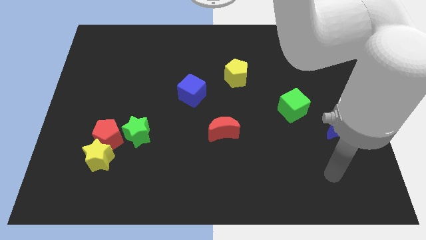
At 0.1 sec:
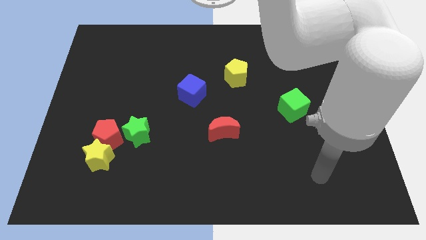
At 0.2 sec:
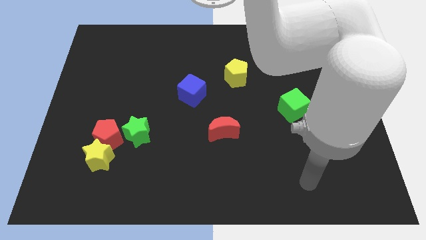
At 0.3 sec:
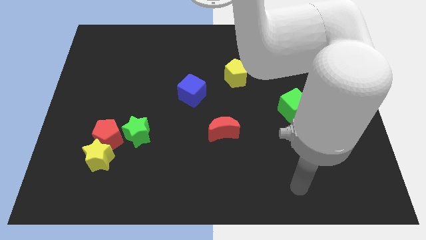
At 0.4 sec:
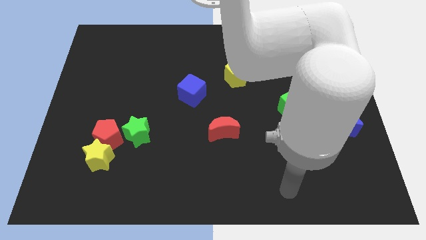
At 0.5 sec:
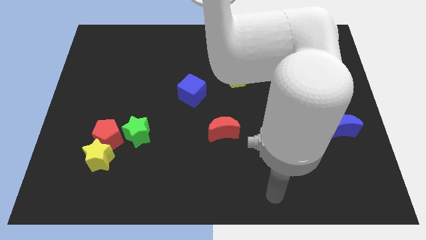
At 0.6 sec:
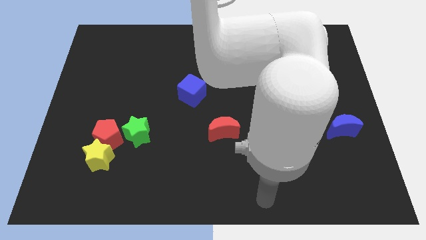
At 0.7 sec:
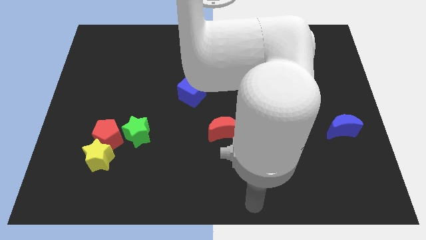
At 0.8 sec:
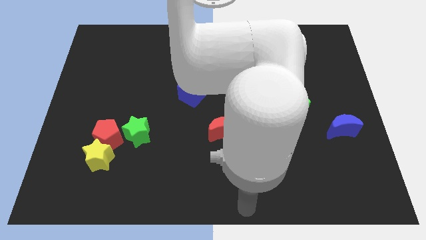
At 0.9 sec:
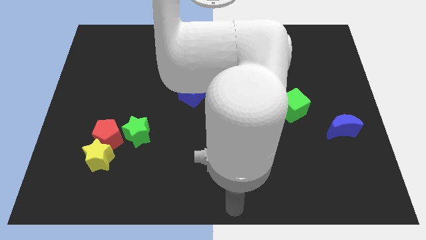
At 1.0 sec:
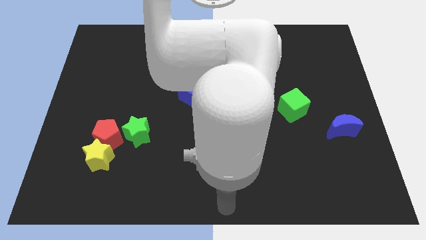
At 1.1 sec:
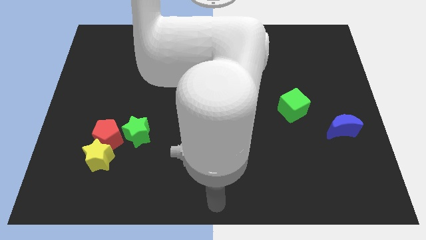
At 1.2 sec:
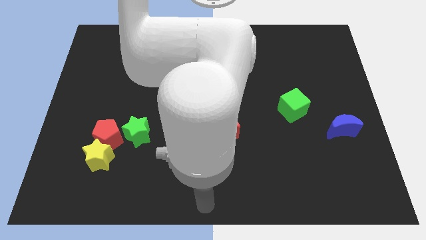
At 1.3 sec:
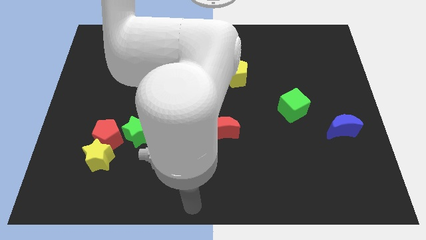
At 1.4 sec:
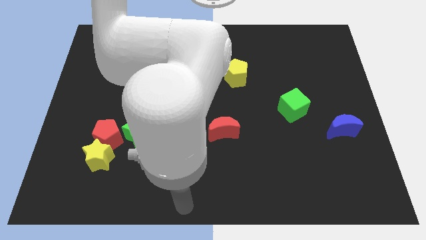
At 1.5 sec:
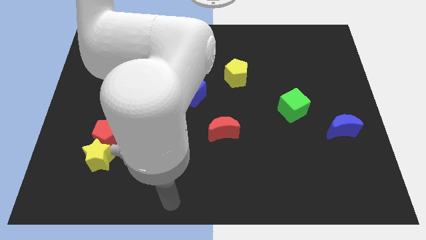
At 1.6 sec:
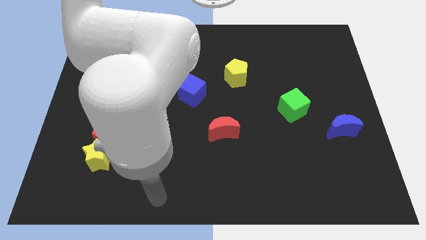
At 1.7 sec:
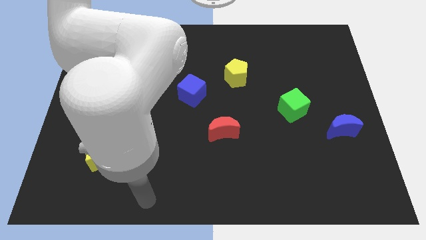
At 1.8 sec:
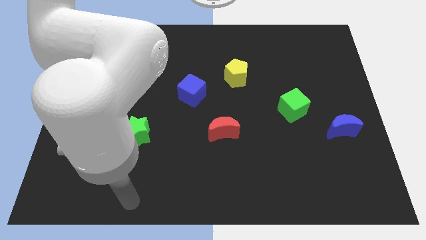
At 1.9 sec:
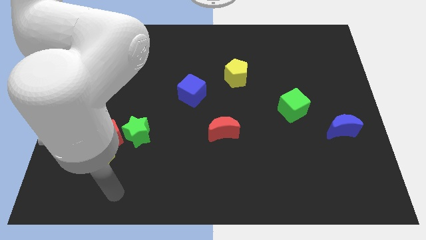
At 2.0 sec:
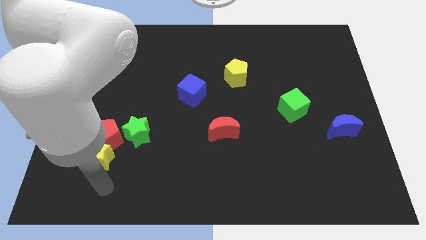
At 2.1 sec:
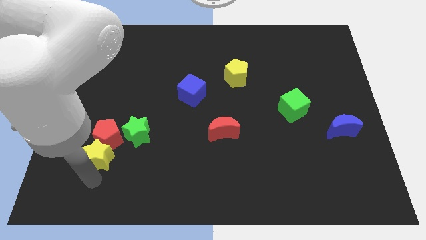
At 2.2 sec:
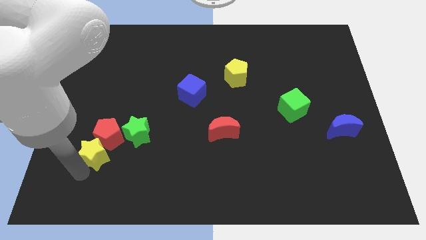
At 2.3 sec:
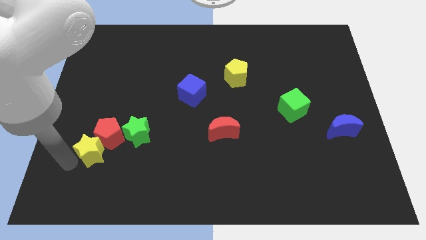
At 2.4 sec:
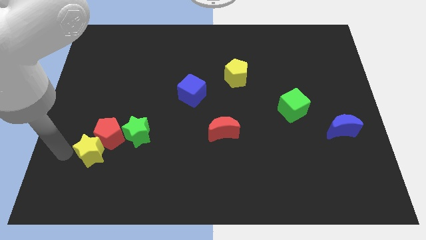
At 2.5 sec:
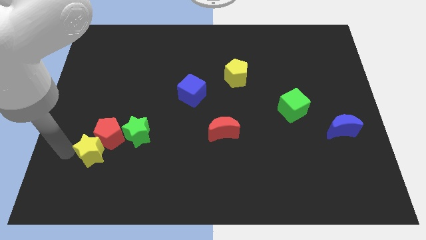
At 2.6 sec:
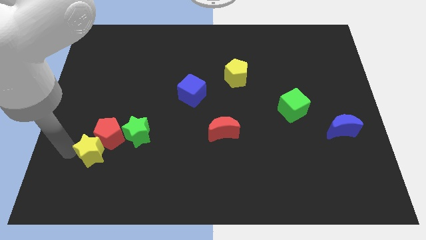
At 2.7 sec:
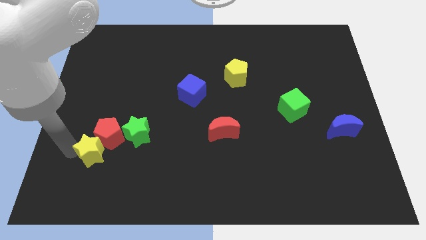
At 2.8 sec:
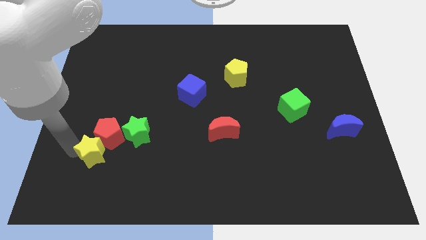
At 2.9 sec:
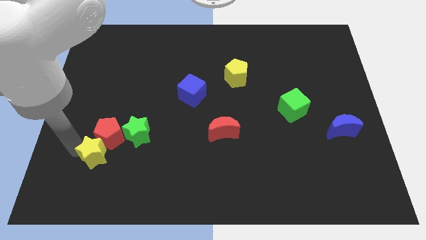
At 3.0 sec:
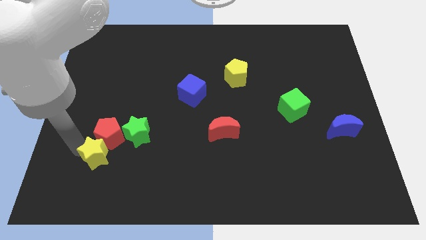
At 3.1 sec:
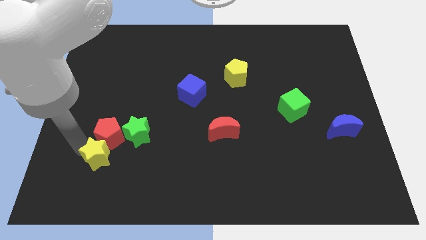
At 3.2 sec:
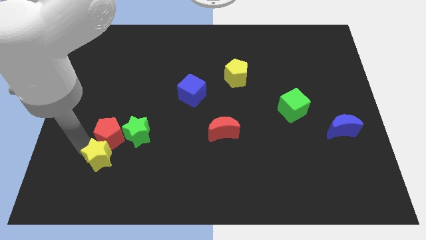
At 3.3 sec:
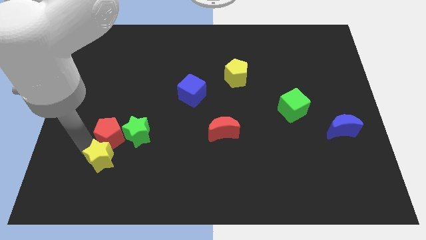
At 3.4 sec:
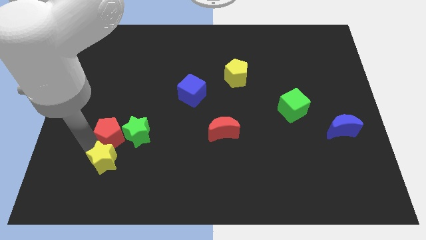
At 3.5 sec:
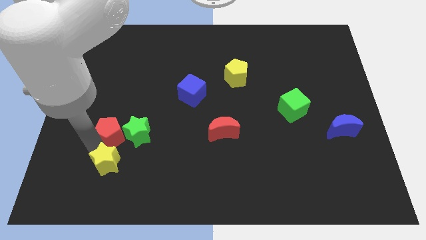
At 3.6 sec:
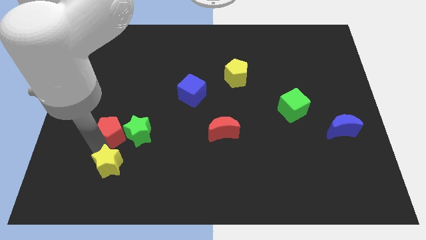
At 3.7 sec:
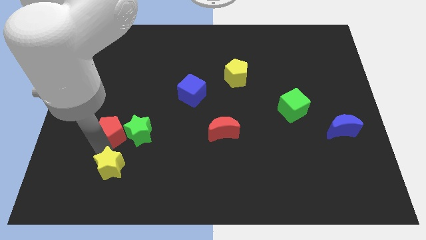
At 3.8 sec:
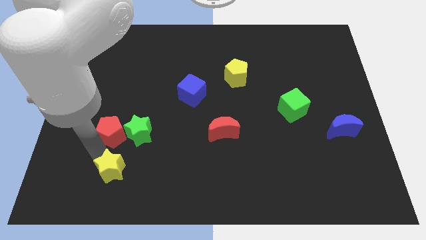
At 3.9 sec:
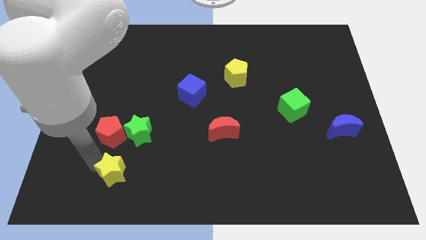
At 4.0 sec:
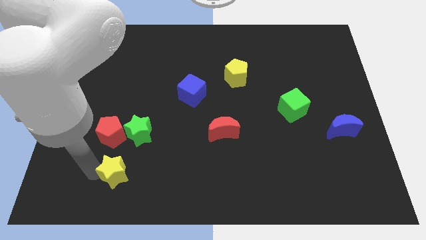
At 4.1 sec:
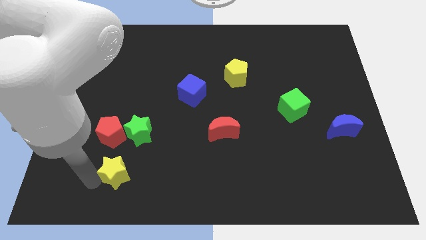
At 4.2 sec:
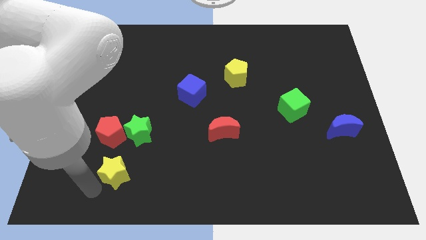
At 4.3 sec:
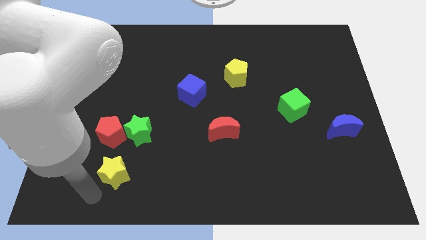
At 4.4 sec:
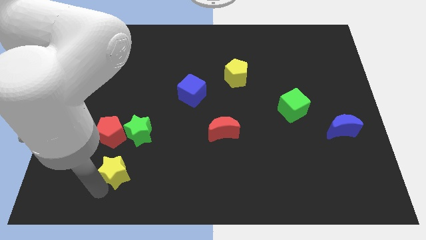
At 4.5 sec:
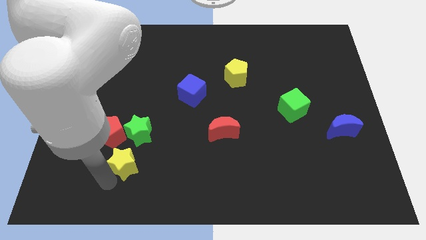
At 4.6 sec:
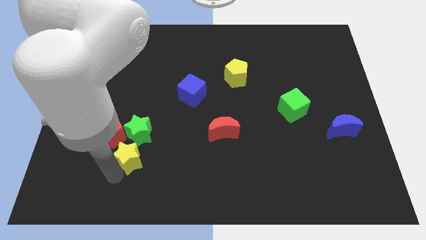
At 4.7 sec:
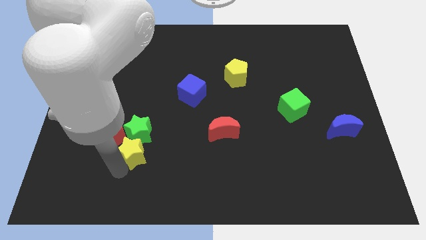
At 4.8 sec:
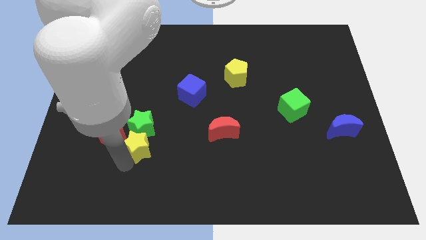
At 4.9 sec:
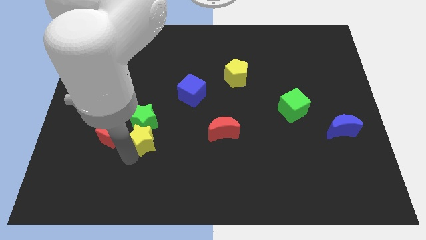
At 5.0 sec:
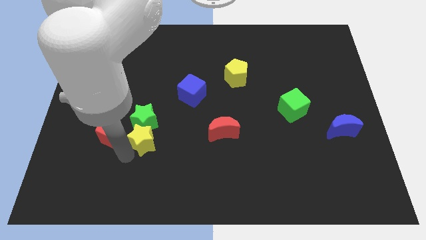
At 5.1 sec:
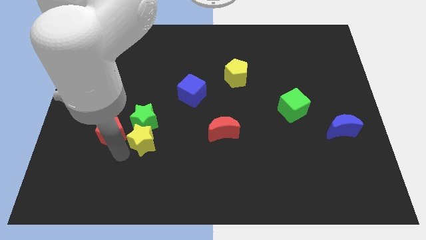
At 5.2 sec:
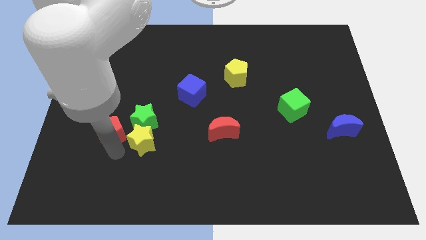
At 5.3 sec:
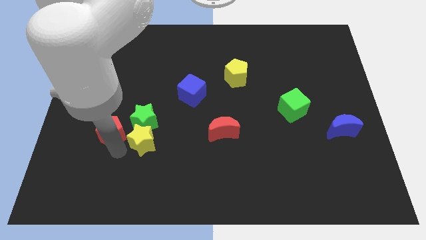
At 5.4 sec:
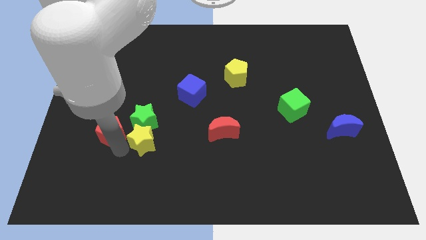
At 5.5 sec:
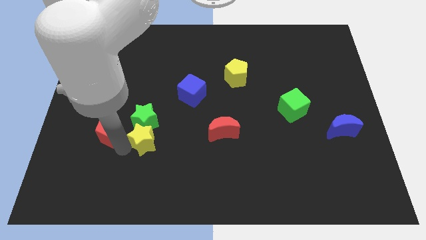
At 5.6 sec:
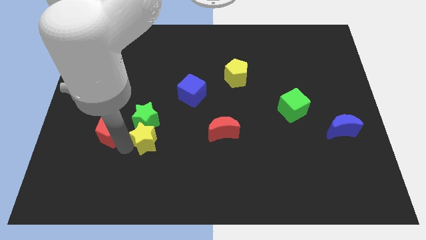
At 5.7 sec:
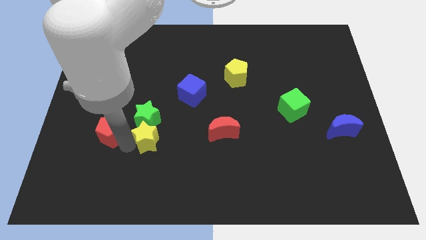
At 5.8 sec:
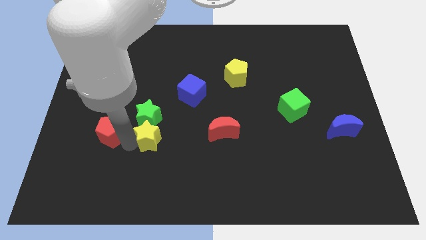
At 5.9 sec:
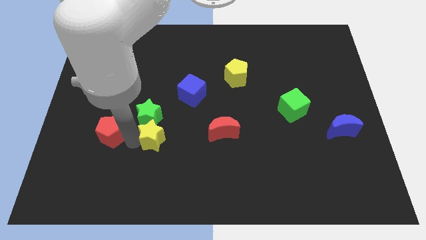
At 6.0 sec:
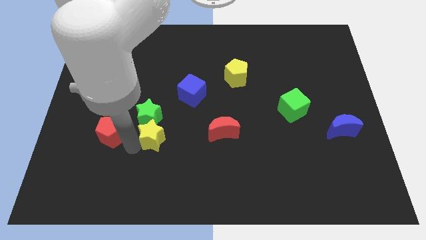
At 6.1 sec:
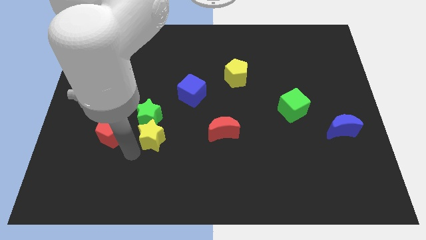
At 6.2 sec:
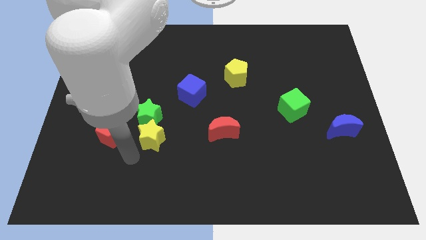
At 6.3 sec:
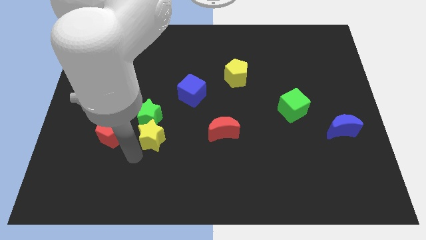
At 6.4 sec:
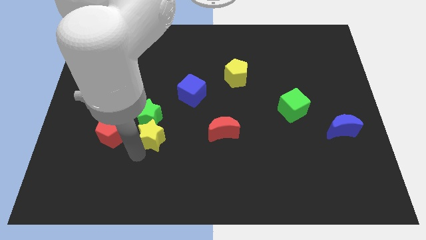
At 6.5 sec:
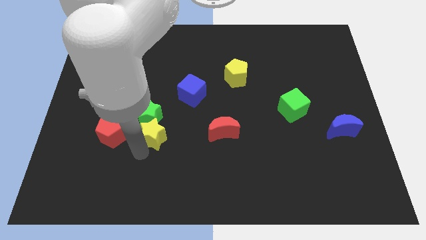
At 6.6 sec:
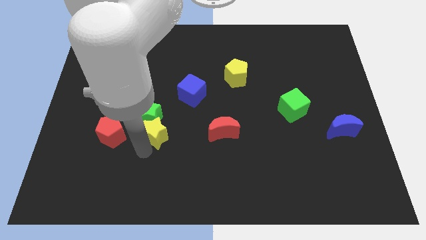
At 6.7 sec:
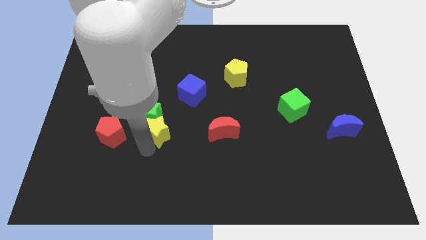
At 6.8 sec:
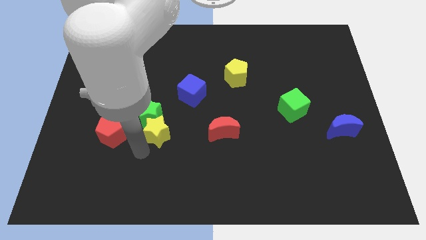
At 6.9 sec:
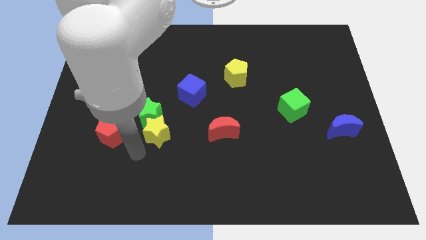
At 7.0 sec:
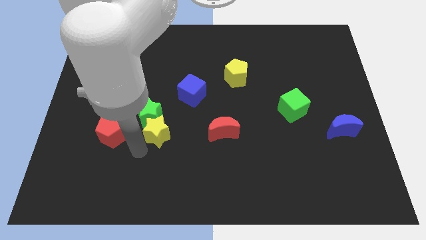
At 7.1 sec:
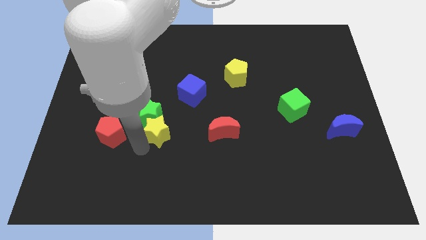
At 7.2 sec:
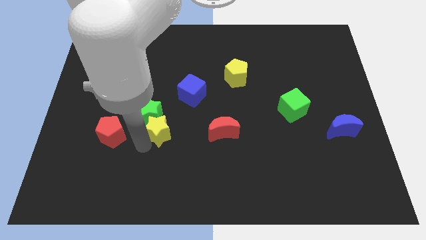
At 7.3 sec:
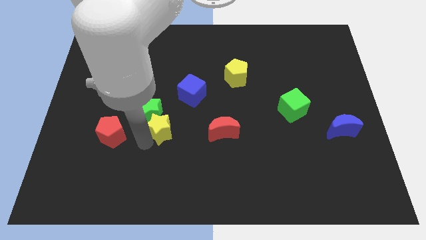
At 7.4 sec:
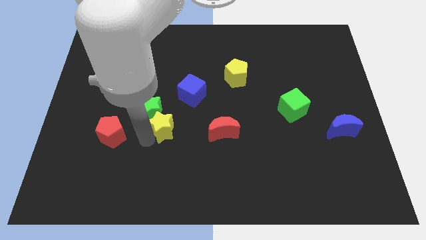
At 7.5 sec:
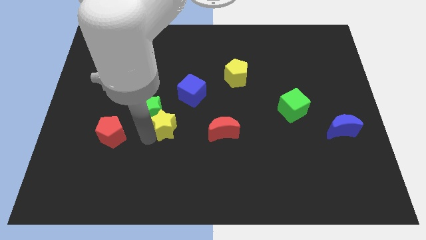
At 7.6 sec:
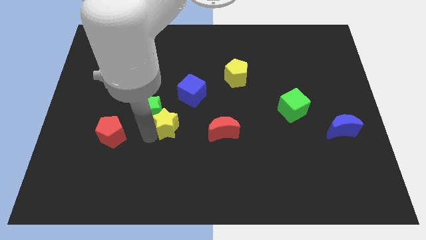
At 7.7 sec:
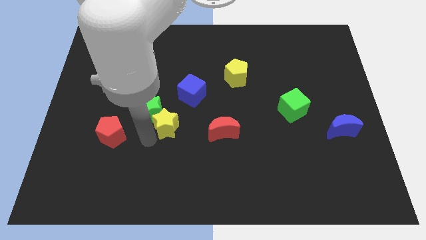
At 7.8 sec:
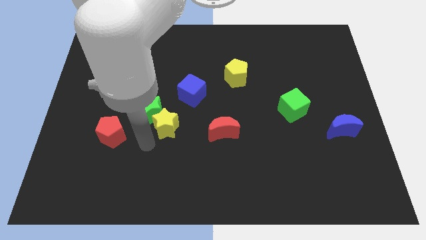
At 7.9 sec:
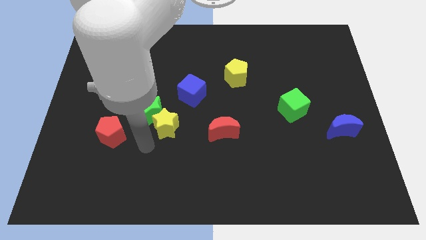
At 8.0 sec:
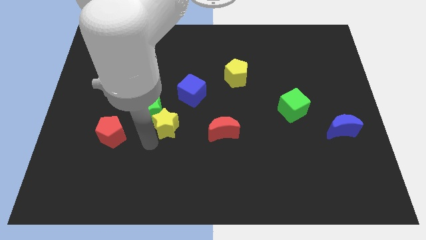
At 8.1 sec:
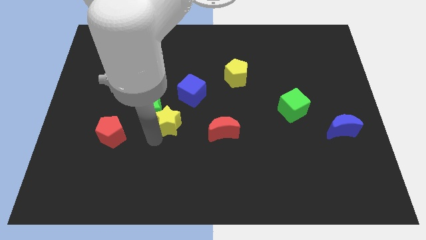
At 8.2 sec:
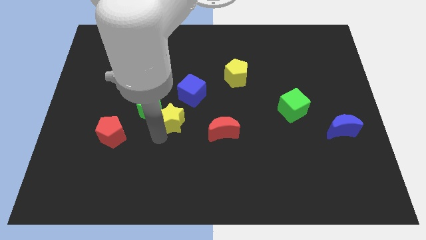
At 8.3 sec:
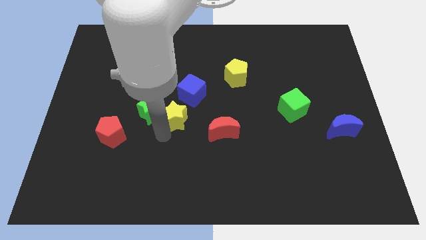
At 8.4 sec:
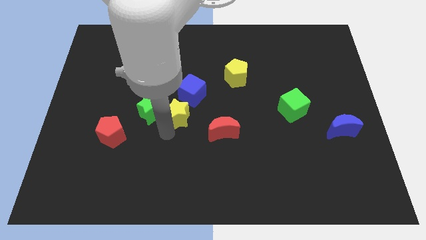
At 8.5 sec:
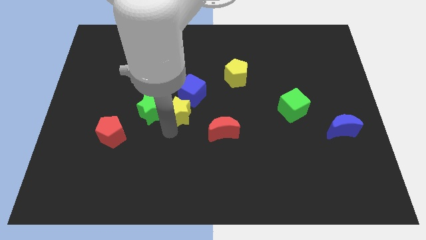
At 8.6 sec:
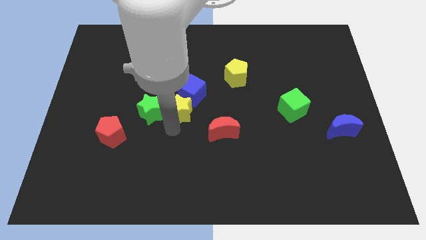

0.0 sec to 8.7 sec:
push the yellow star towards the blue cube
